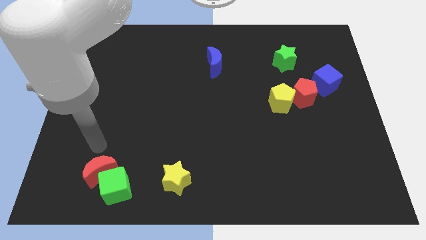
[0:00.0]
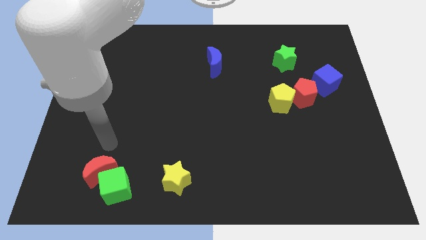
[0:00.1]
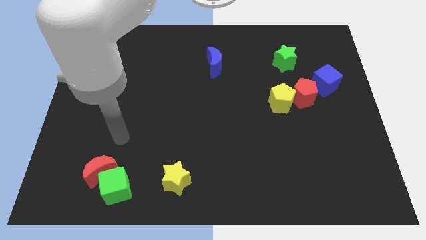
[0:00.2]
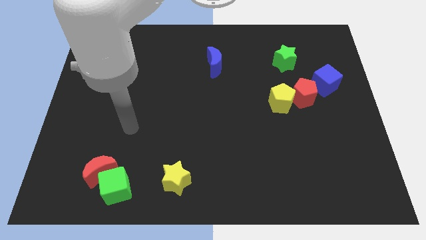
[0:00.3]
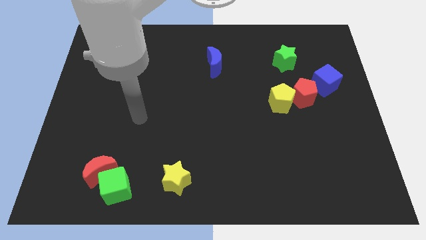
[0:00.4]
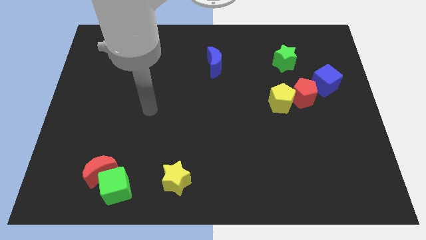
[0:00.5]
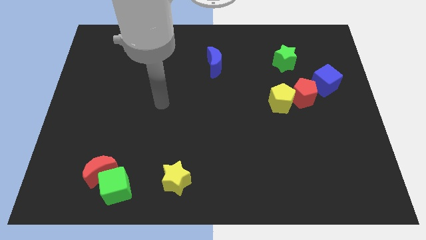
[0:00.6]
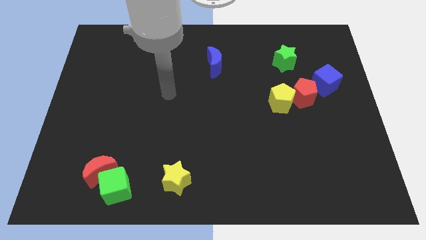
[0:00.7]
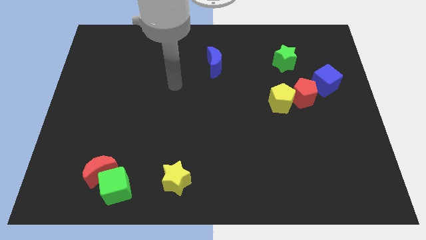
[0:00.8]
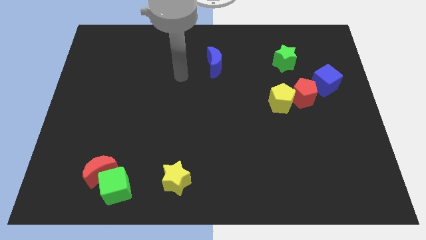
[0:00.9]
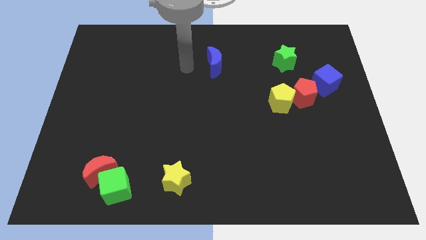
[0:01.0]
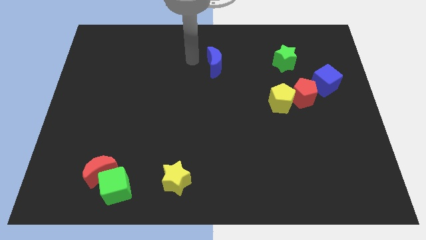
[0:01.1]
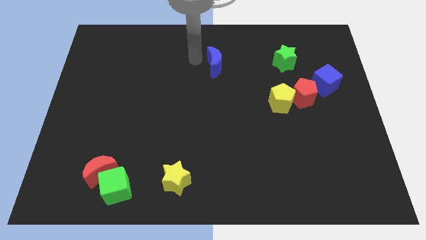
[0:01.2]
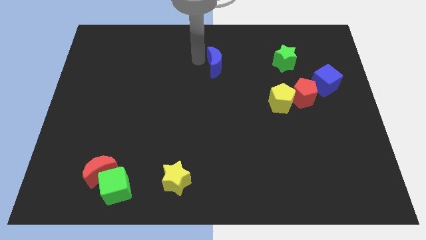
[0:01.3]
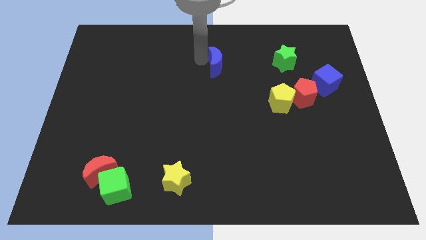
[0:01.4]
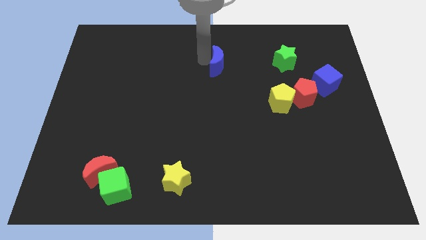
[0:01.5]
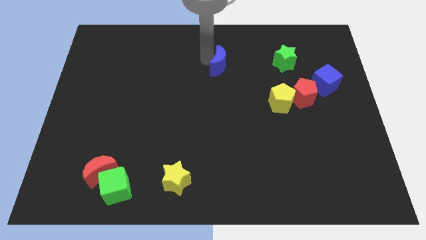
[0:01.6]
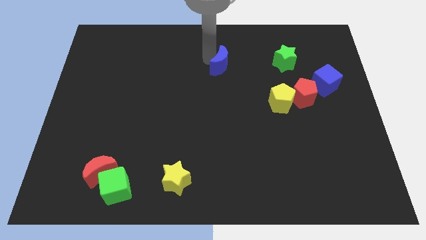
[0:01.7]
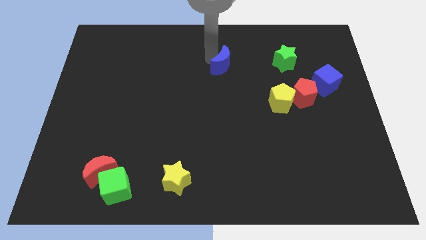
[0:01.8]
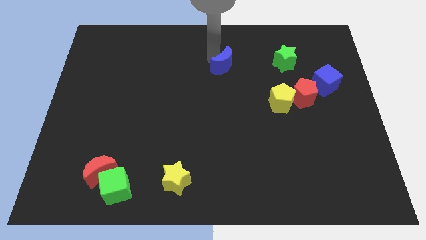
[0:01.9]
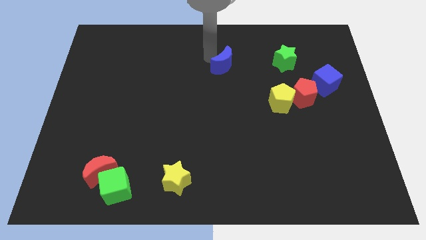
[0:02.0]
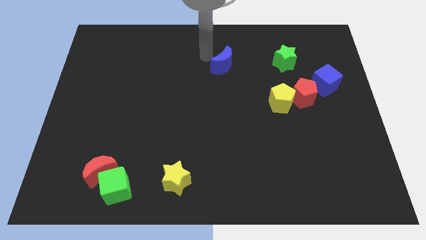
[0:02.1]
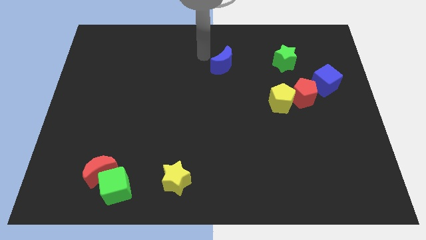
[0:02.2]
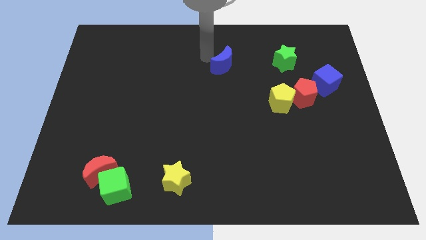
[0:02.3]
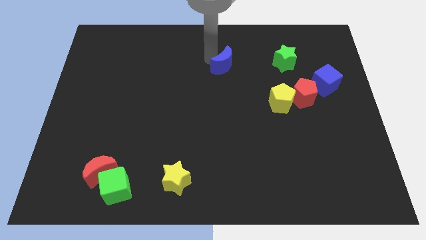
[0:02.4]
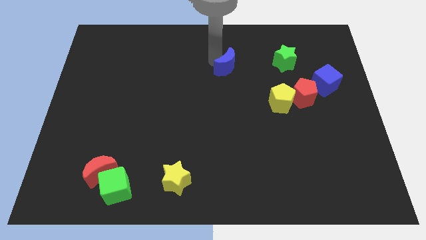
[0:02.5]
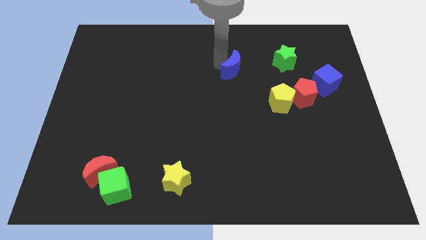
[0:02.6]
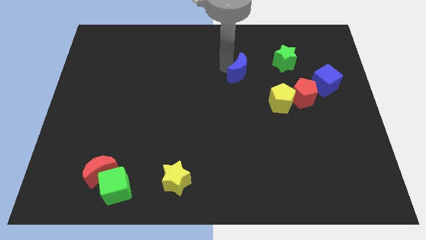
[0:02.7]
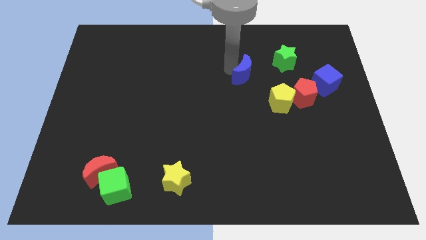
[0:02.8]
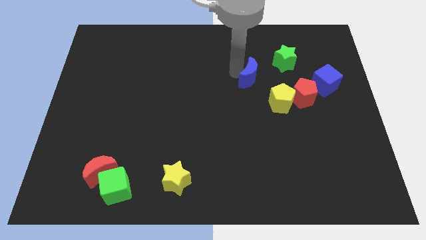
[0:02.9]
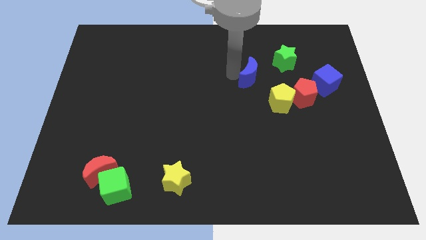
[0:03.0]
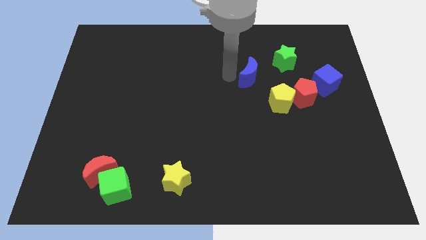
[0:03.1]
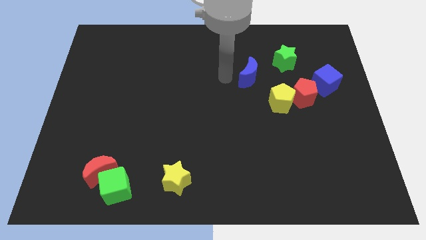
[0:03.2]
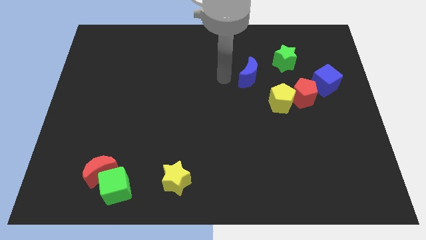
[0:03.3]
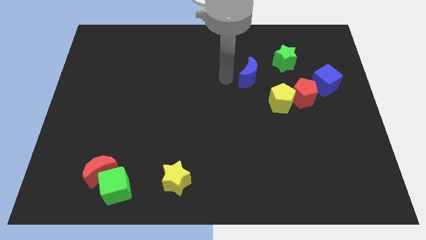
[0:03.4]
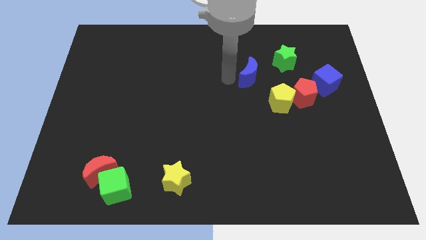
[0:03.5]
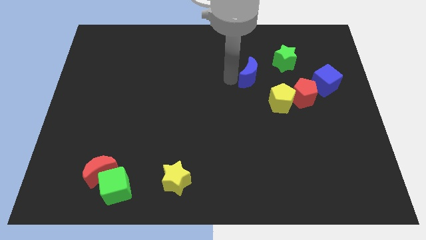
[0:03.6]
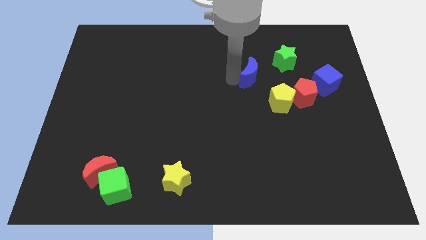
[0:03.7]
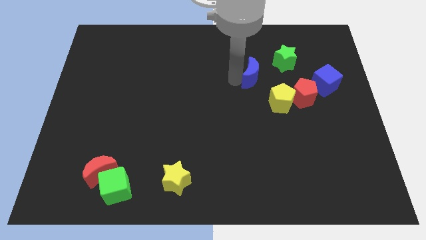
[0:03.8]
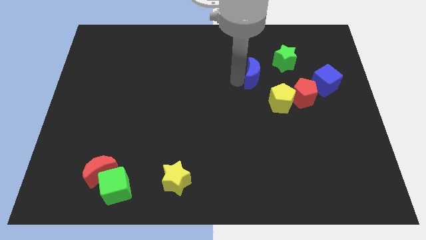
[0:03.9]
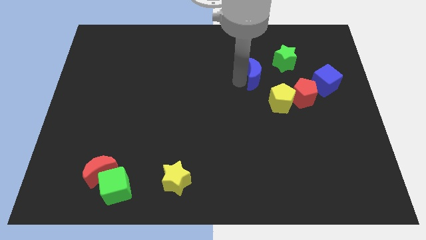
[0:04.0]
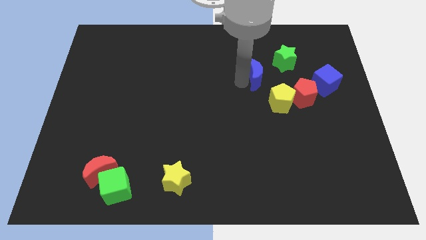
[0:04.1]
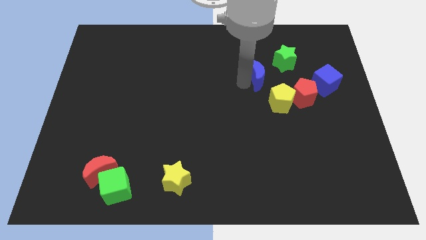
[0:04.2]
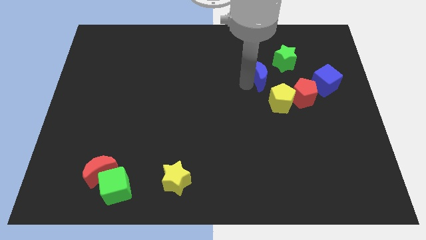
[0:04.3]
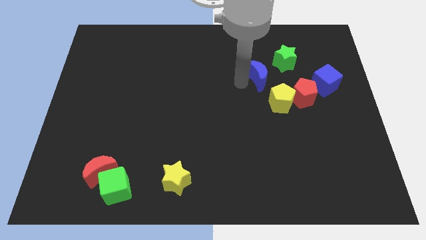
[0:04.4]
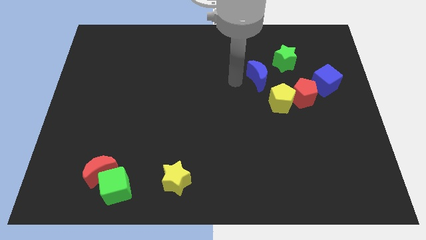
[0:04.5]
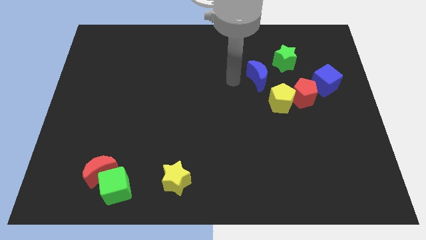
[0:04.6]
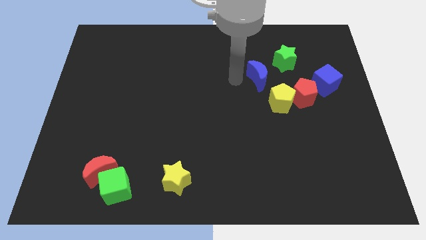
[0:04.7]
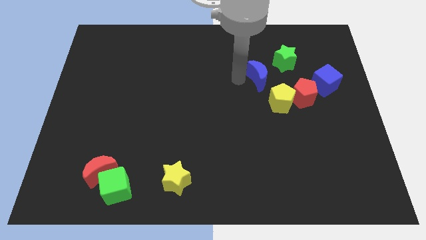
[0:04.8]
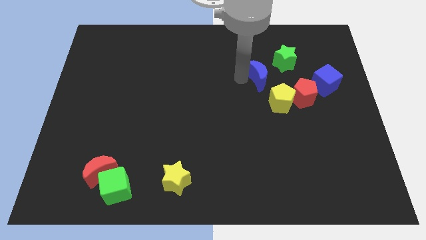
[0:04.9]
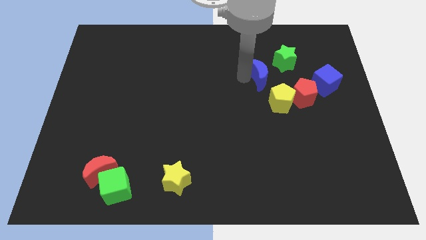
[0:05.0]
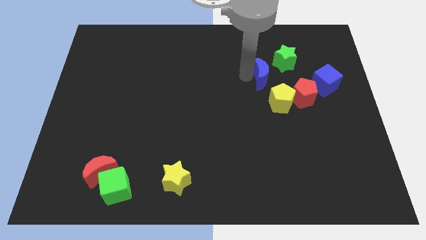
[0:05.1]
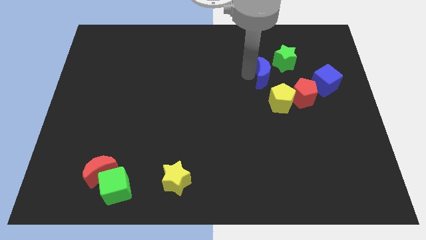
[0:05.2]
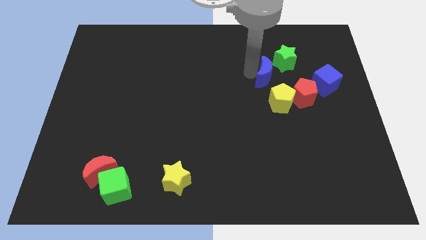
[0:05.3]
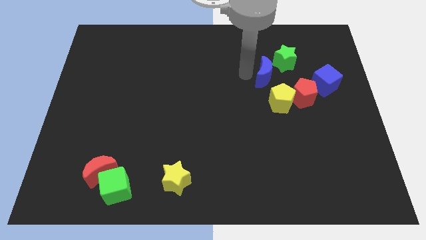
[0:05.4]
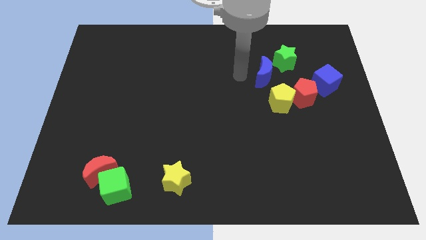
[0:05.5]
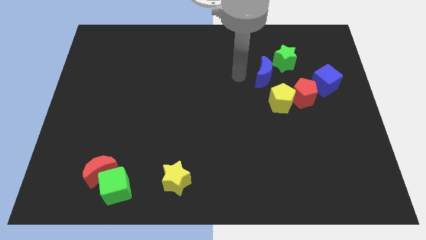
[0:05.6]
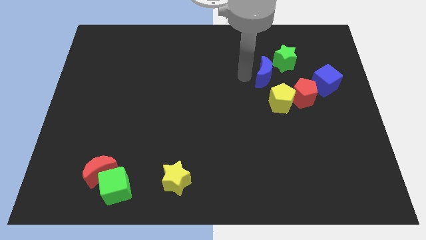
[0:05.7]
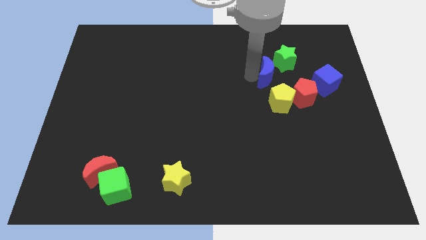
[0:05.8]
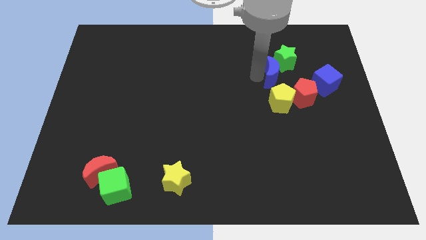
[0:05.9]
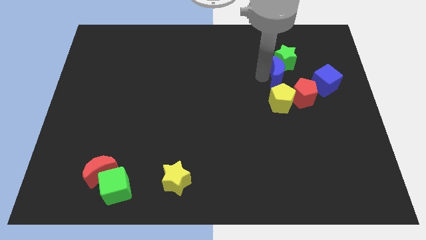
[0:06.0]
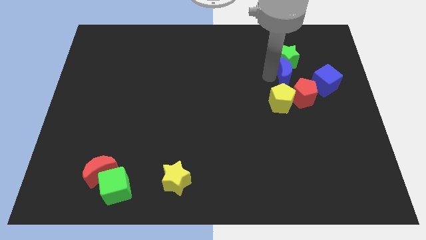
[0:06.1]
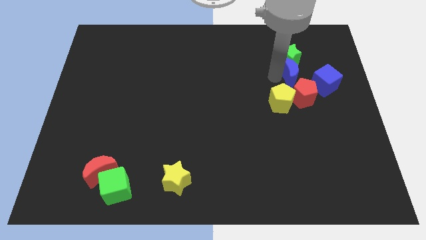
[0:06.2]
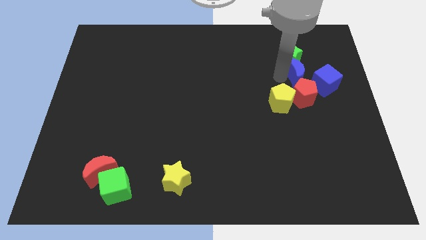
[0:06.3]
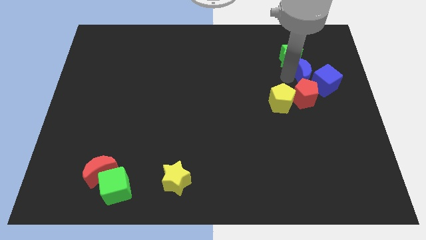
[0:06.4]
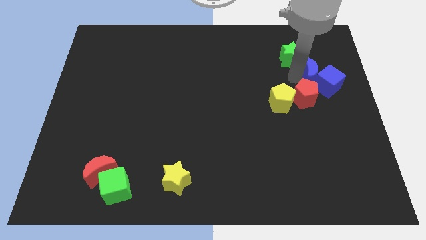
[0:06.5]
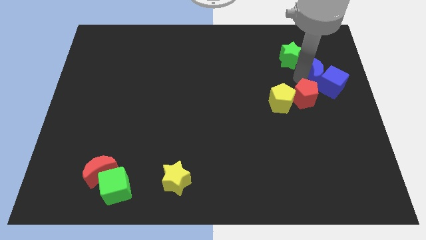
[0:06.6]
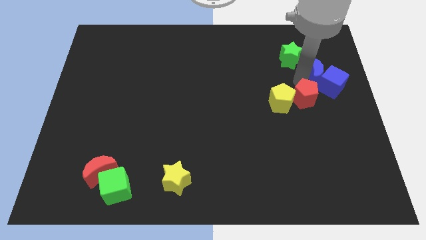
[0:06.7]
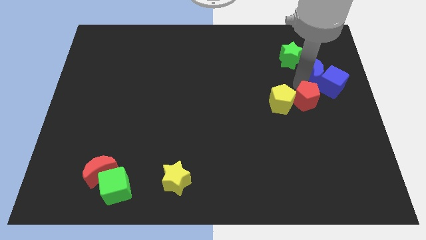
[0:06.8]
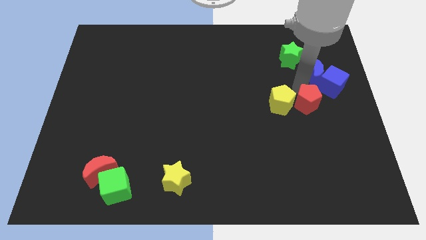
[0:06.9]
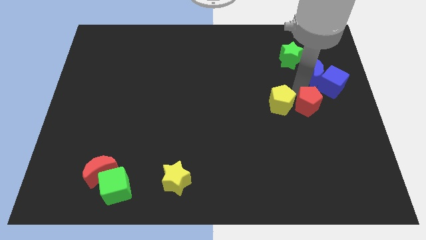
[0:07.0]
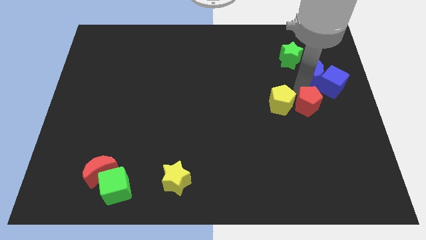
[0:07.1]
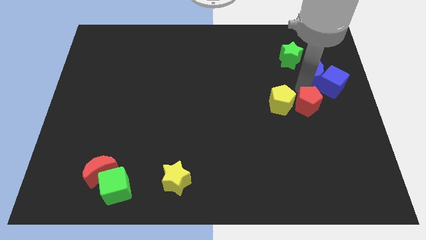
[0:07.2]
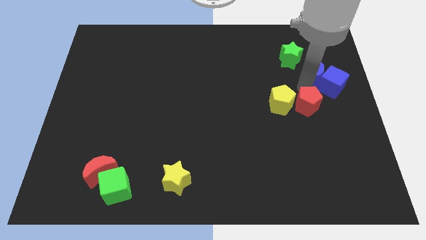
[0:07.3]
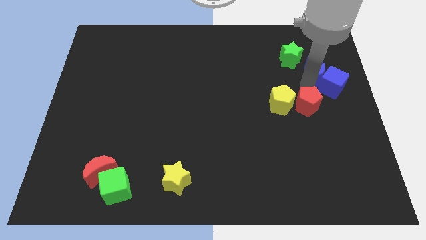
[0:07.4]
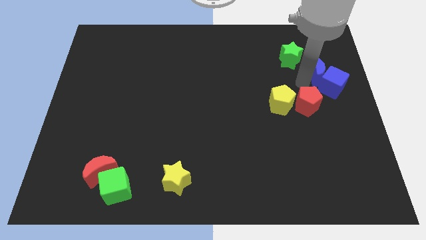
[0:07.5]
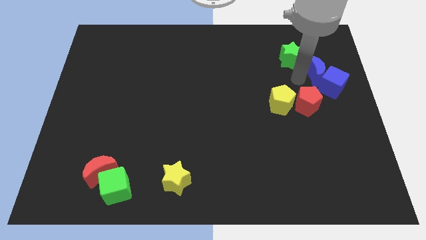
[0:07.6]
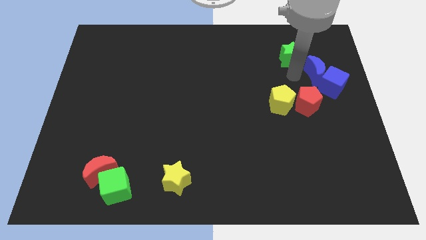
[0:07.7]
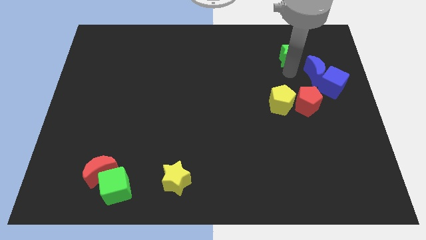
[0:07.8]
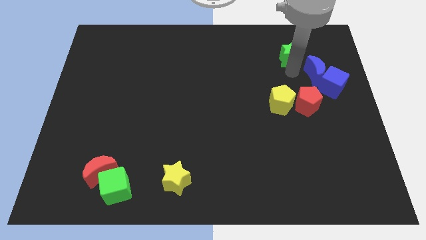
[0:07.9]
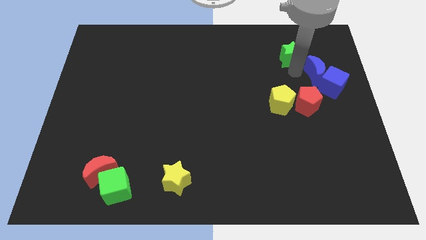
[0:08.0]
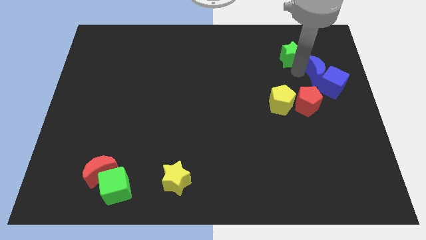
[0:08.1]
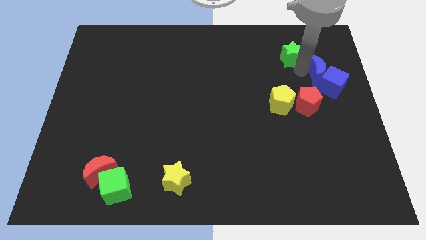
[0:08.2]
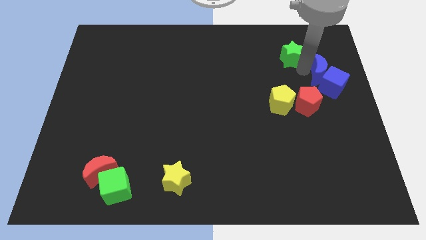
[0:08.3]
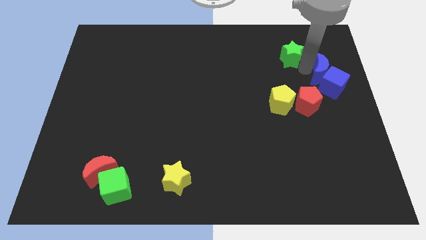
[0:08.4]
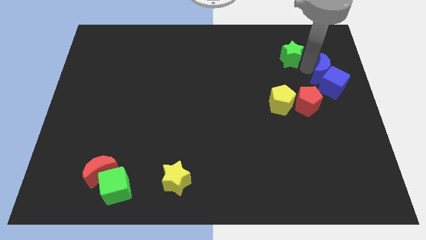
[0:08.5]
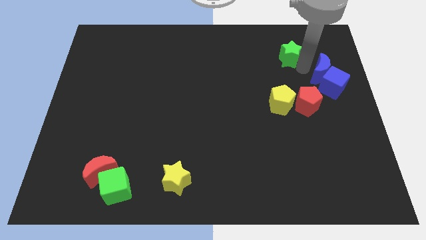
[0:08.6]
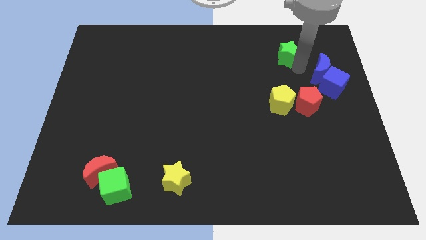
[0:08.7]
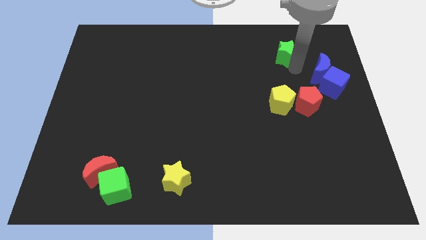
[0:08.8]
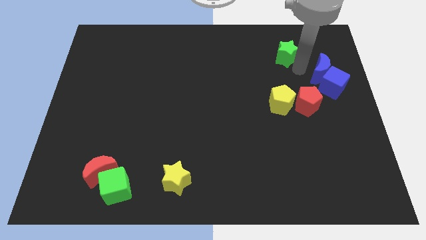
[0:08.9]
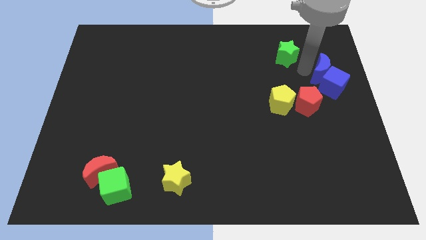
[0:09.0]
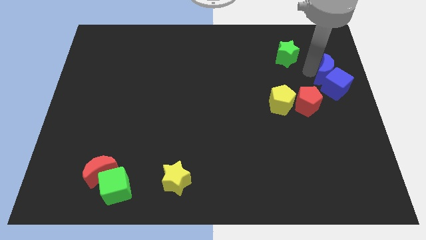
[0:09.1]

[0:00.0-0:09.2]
slide the blue moon to the center right
